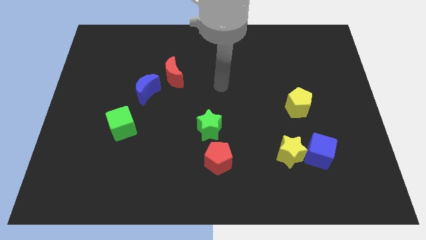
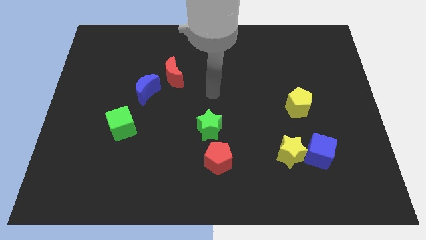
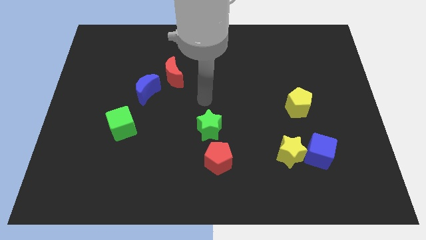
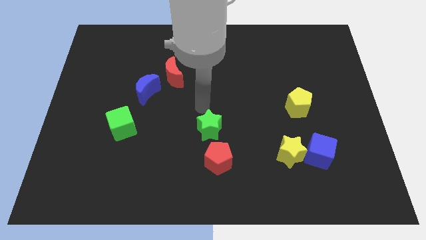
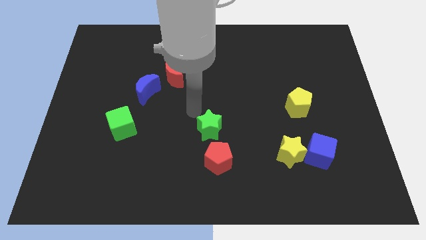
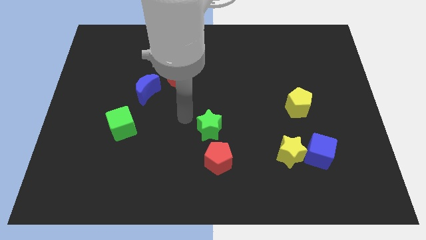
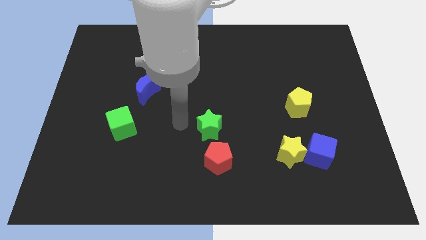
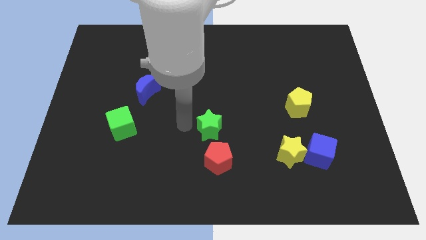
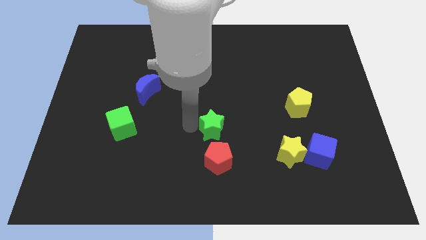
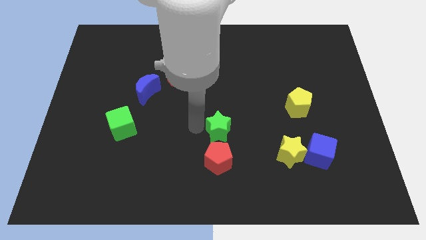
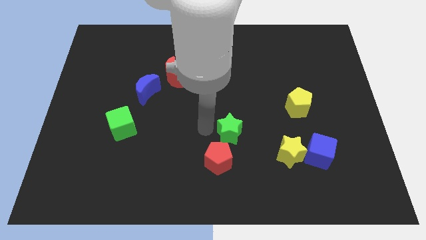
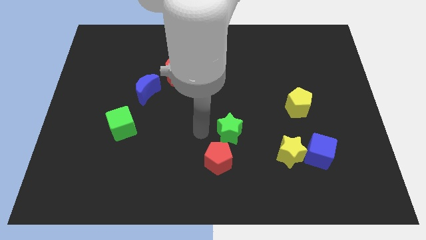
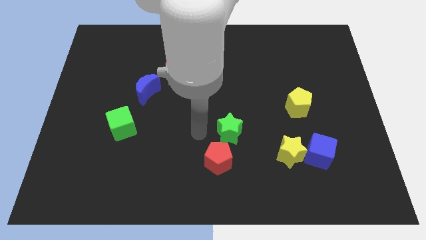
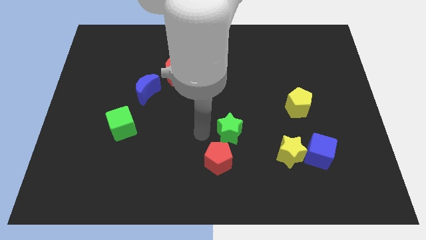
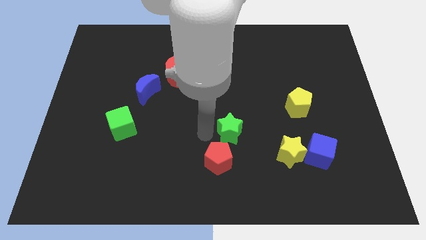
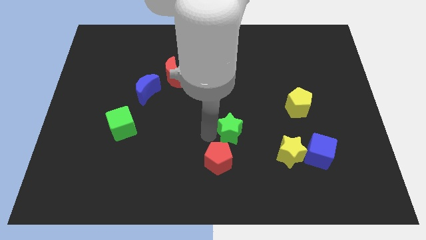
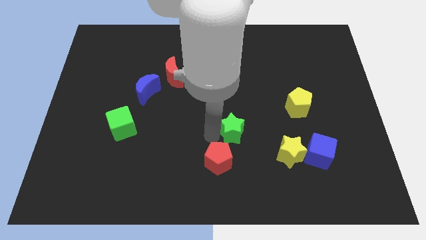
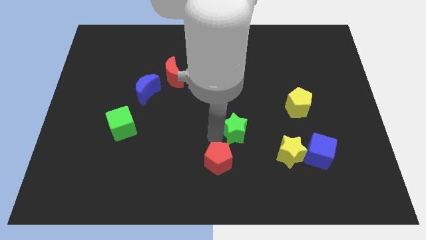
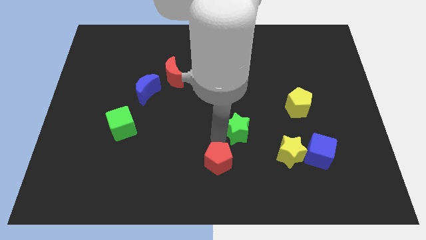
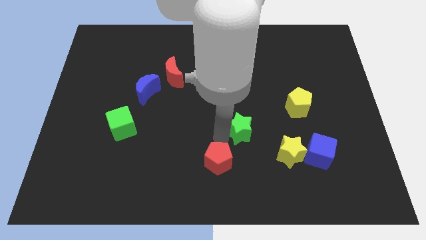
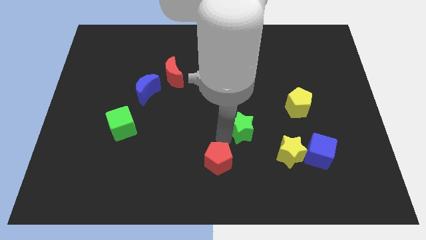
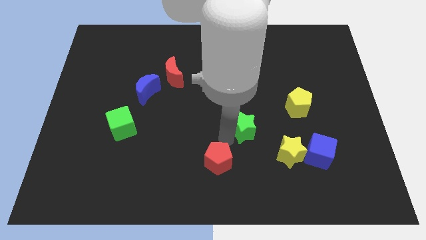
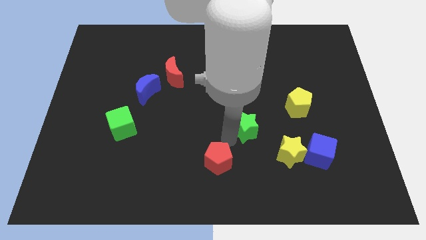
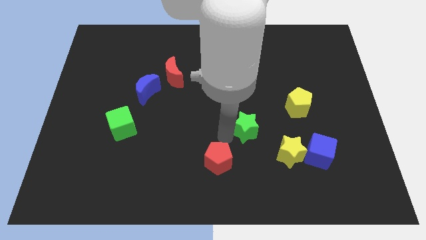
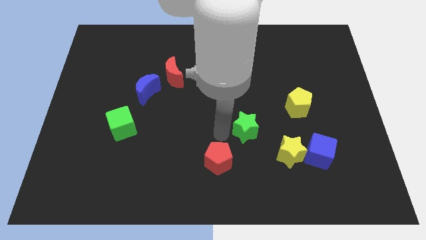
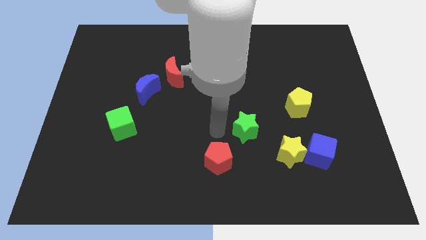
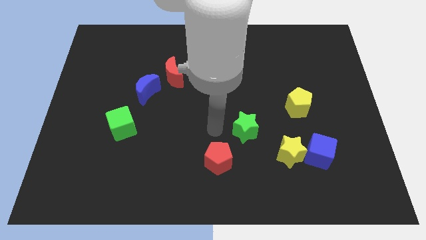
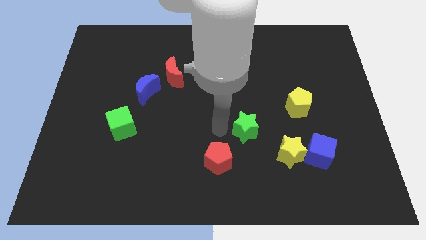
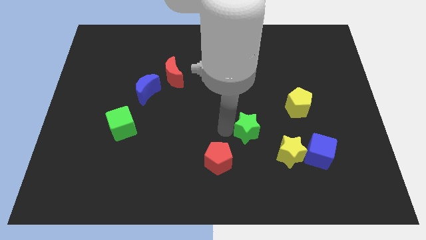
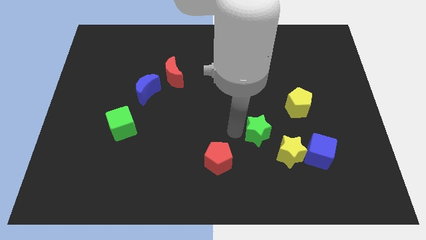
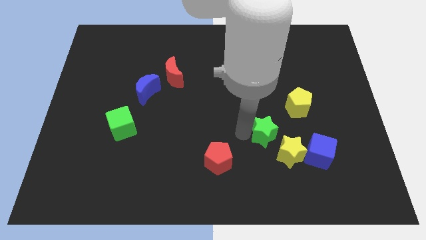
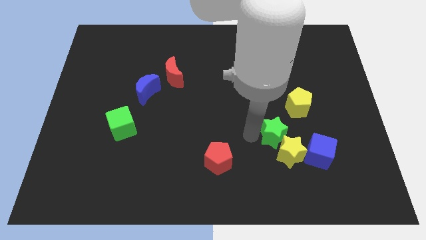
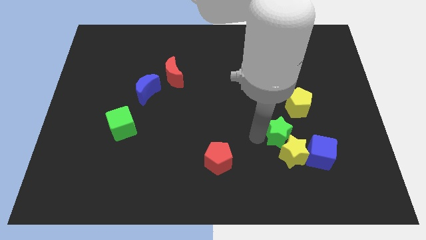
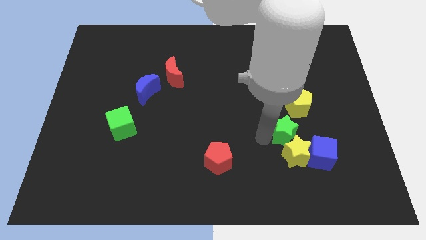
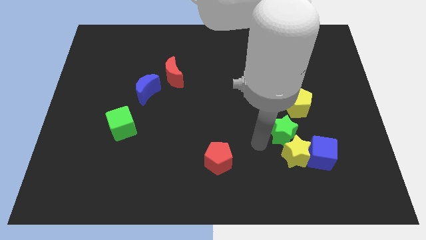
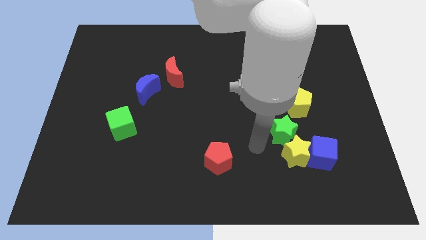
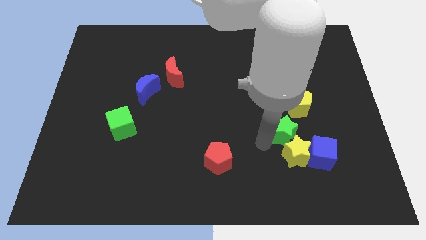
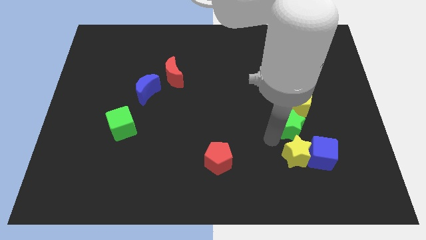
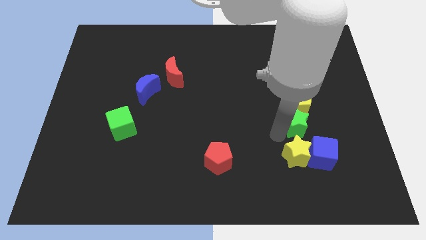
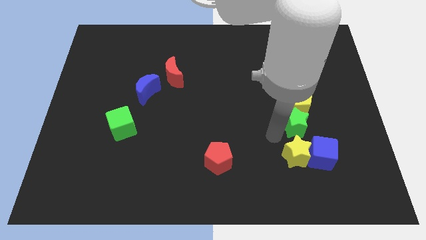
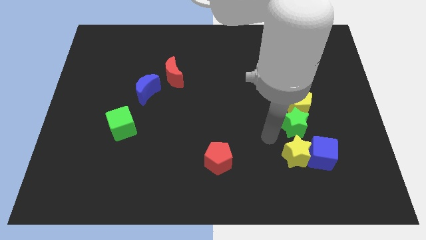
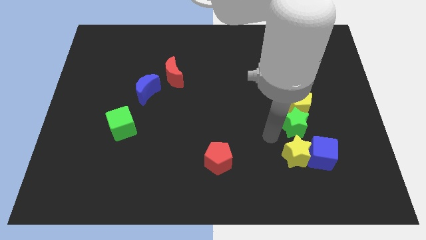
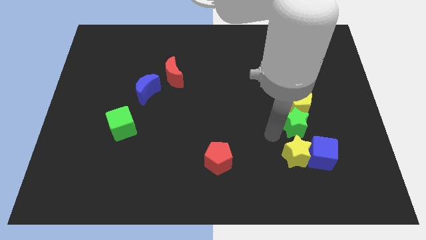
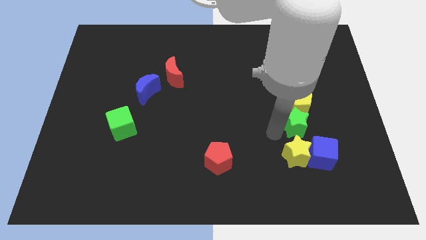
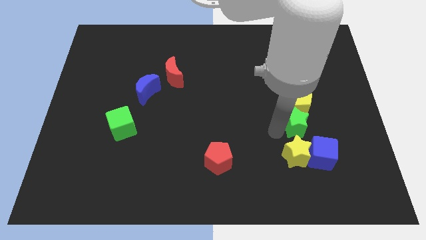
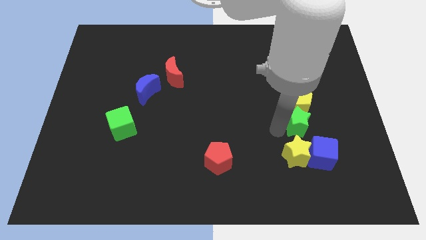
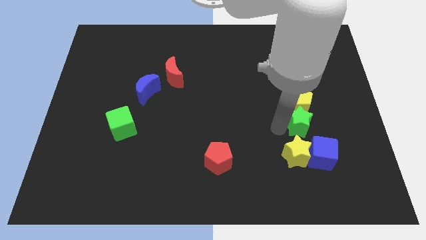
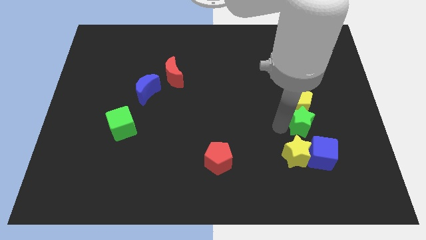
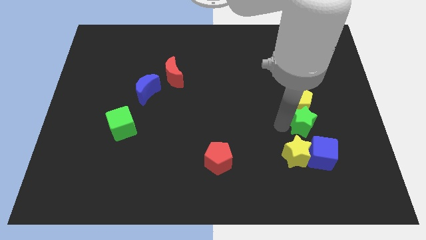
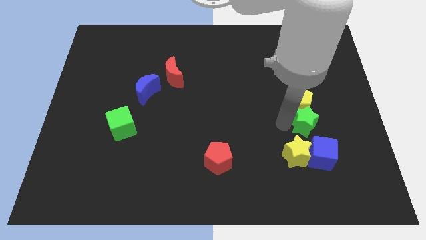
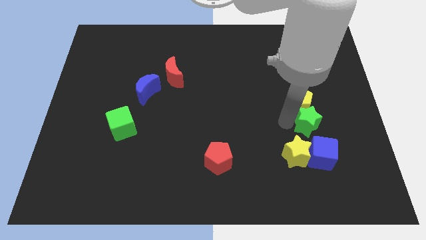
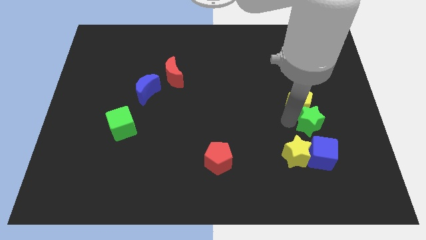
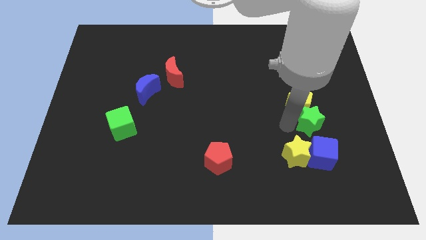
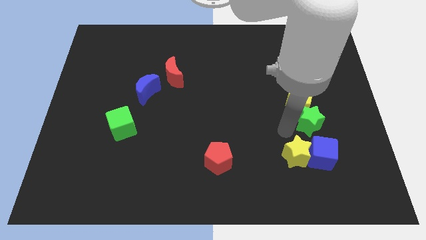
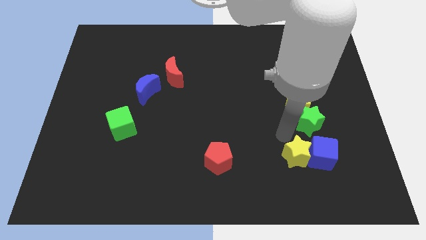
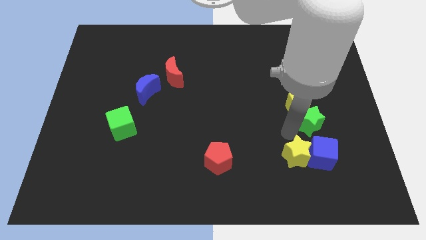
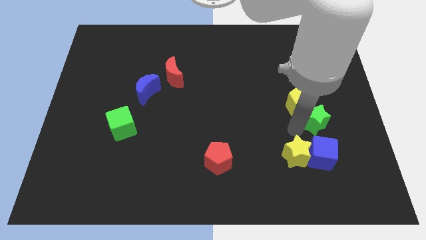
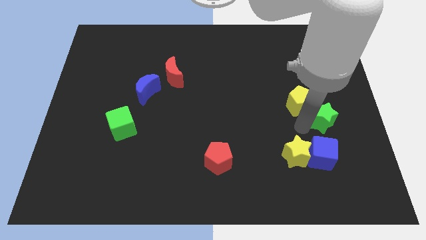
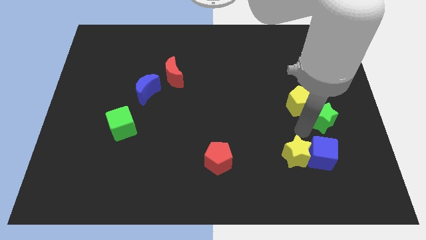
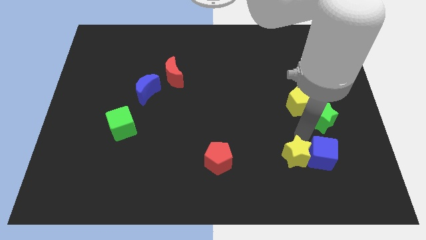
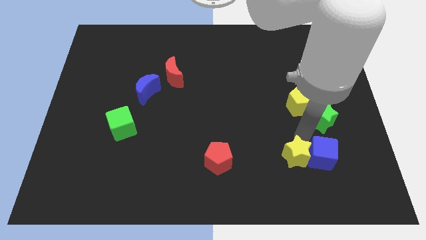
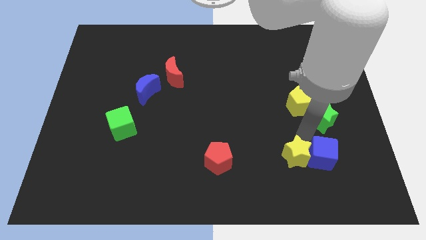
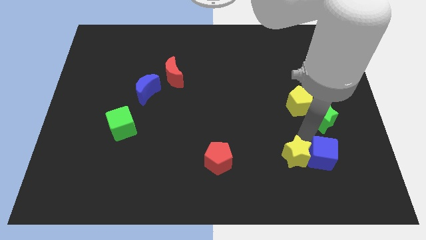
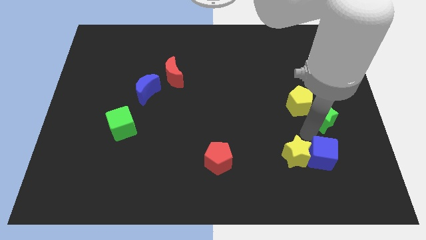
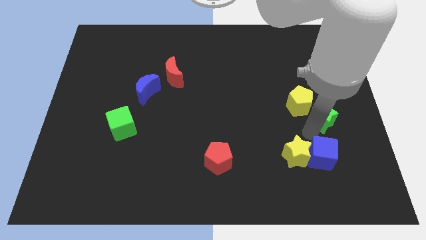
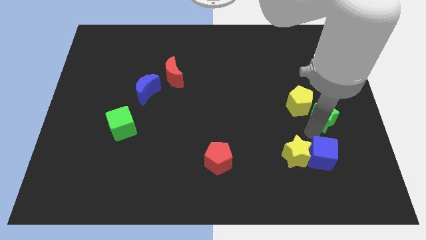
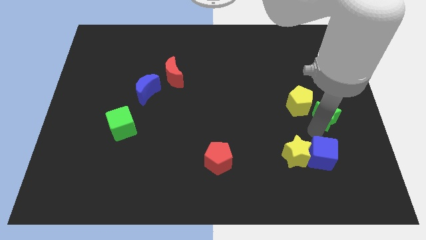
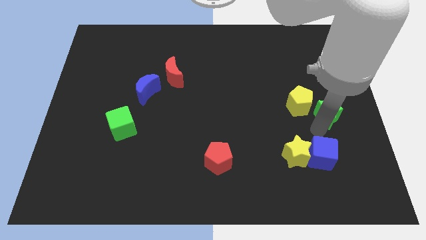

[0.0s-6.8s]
slide the green star to the center right
